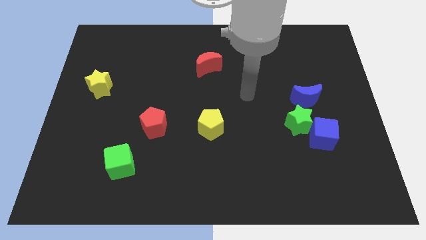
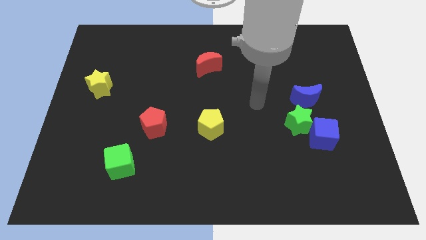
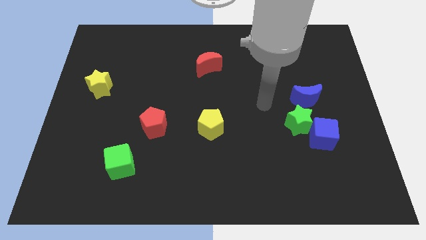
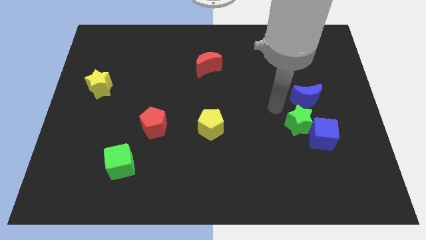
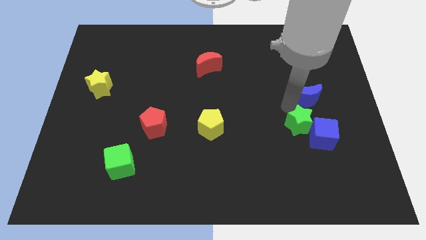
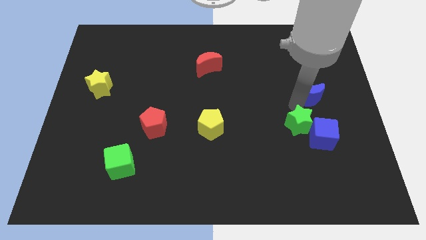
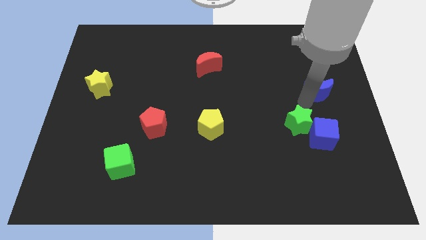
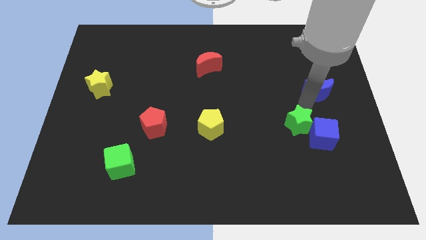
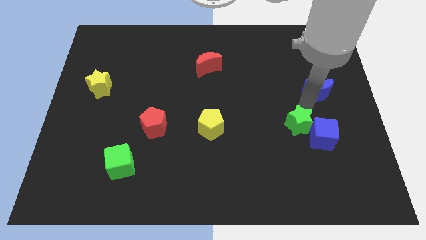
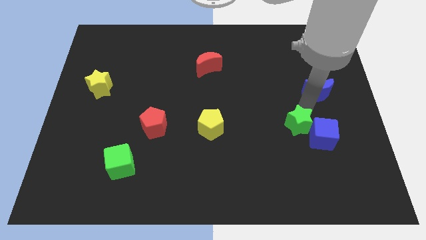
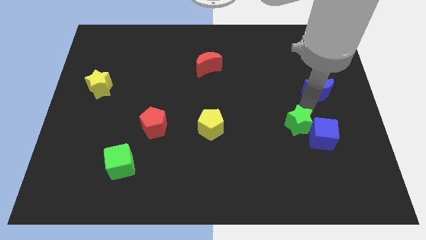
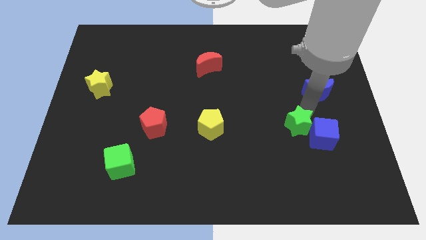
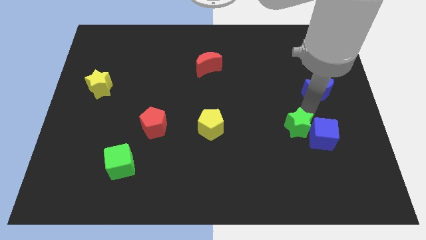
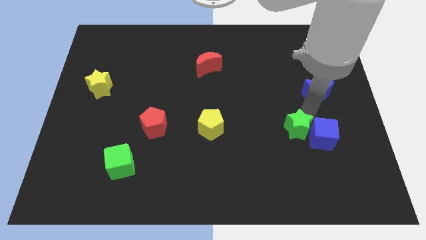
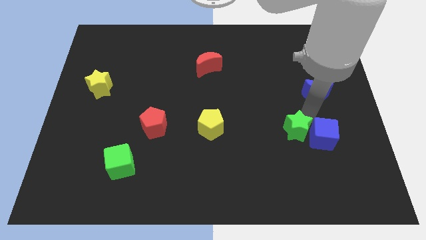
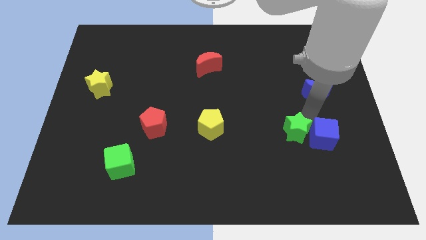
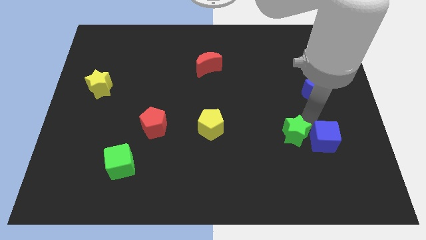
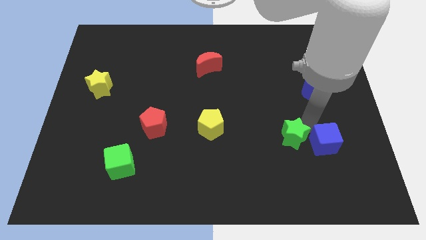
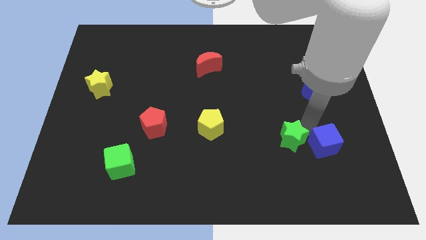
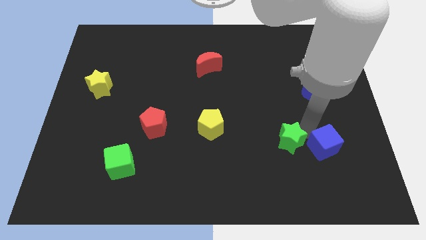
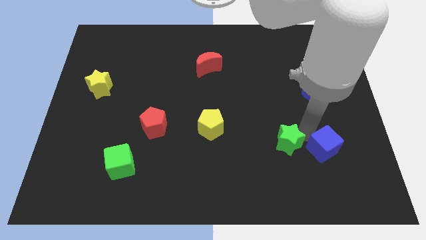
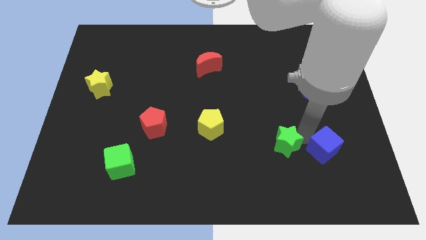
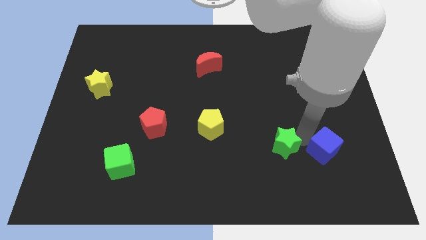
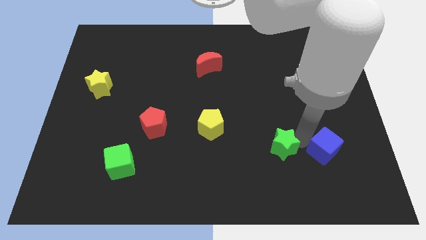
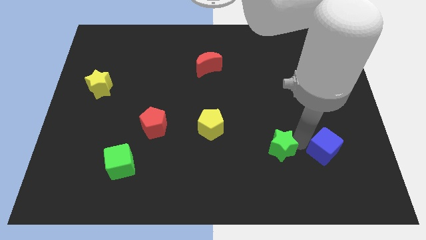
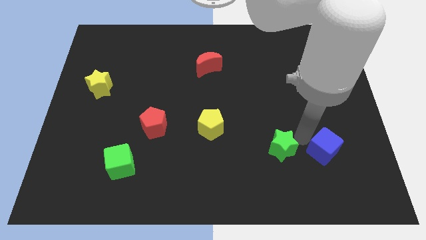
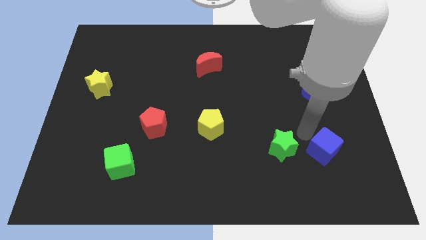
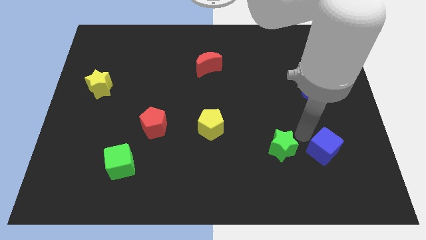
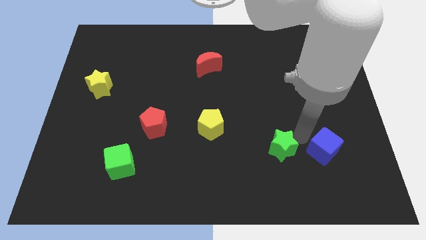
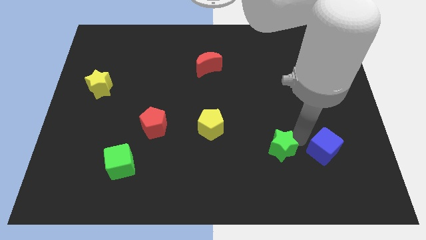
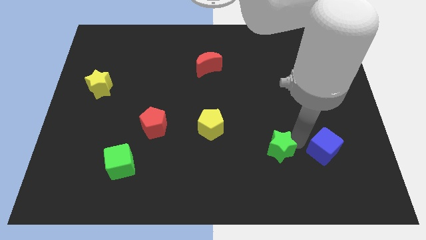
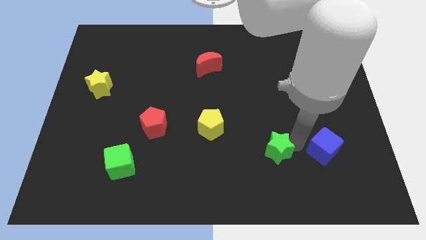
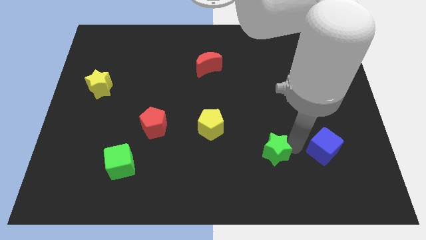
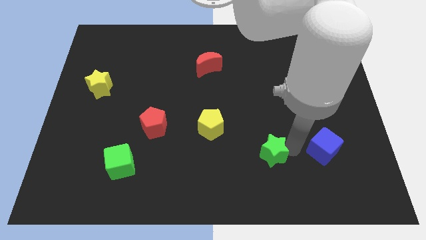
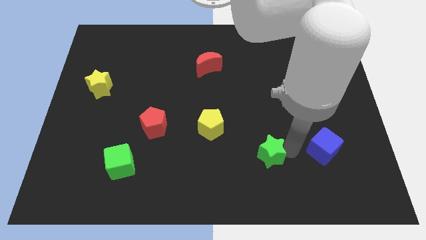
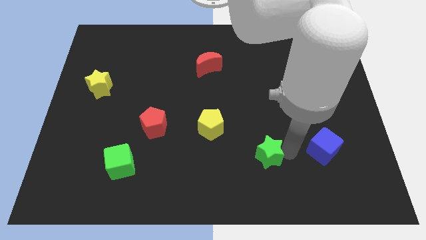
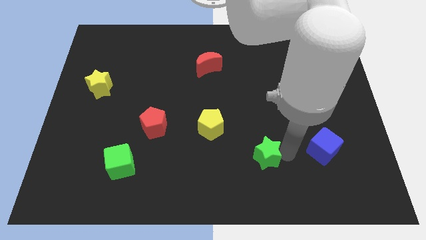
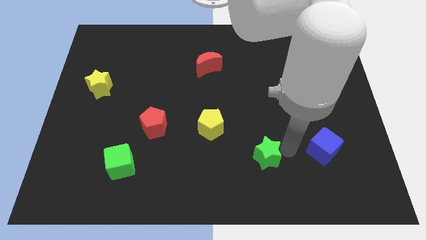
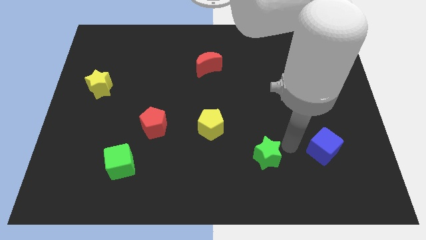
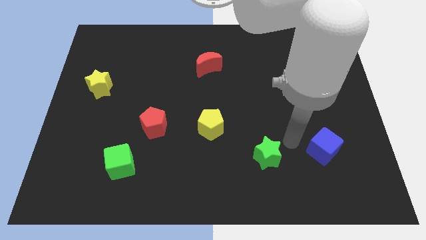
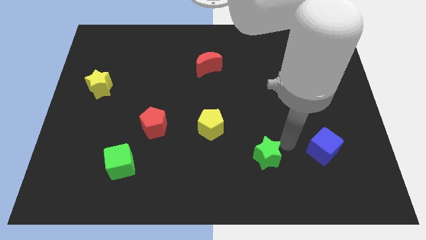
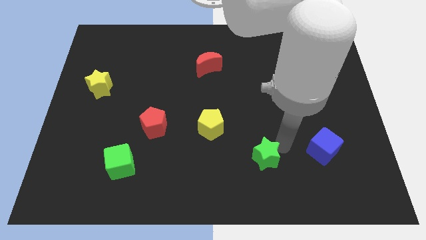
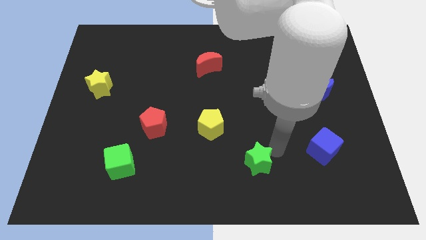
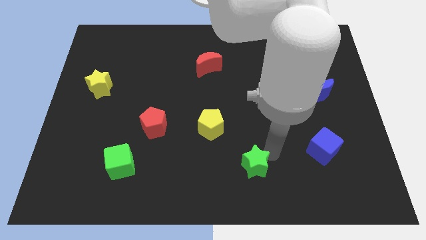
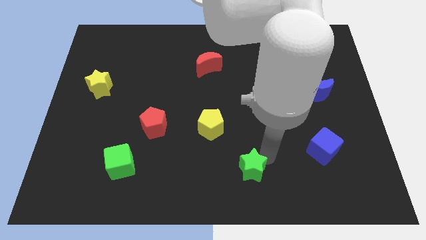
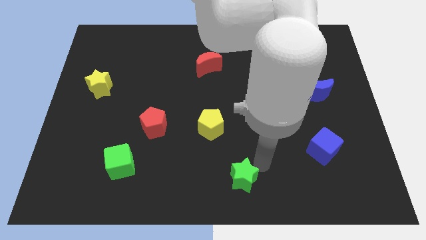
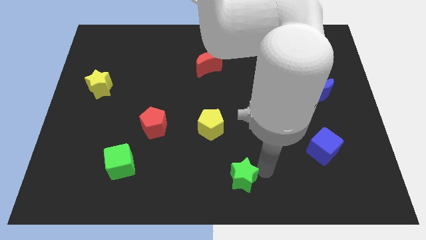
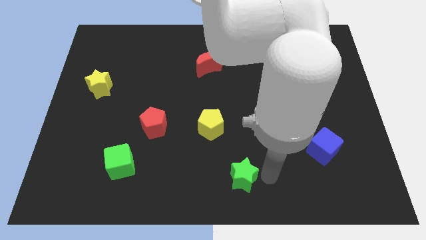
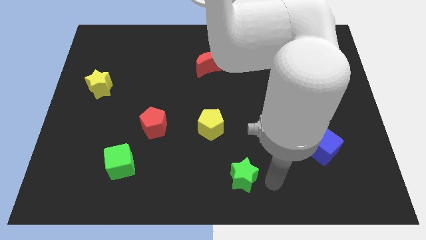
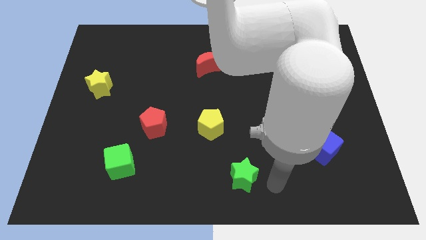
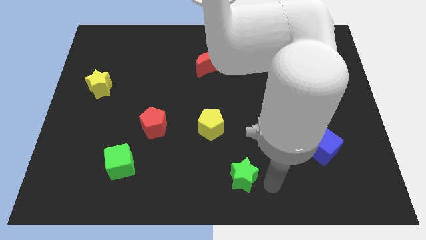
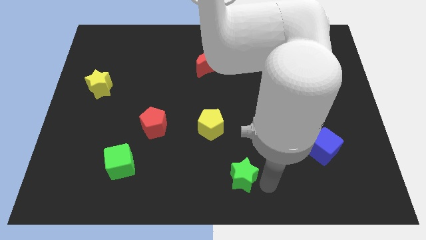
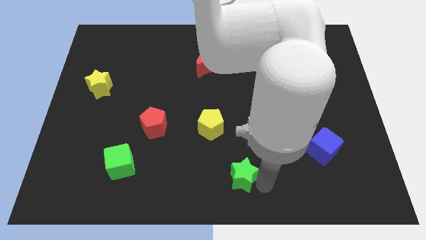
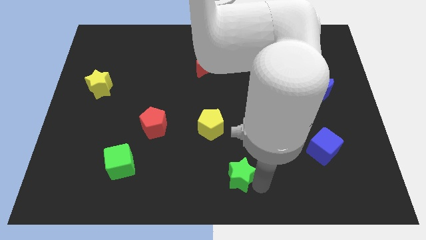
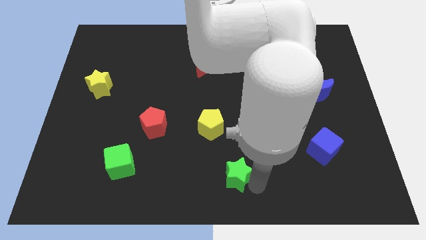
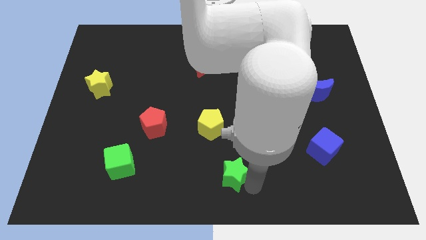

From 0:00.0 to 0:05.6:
push the green star to the bottom side of the yellow pentagon

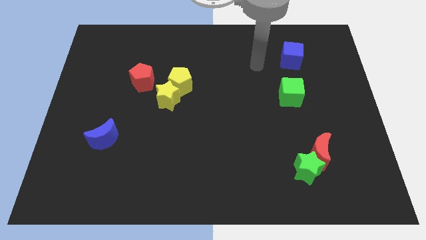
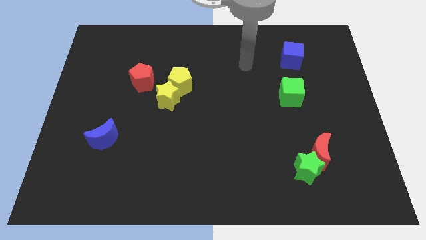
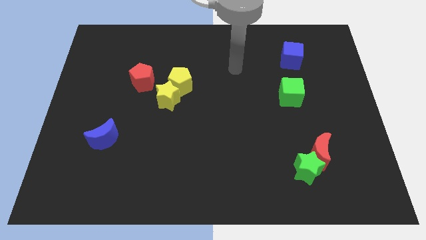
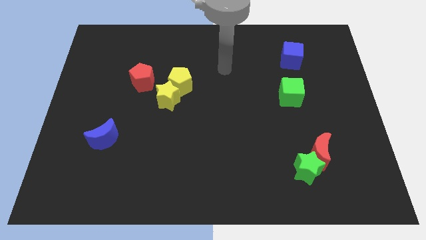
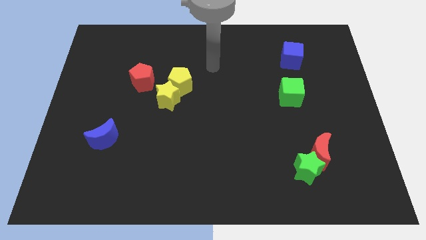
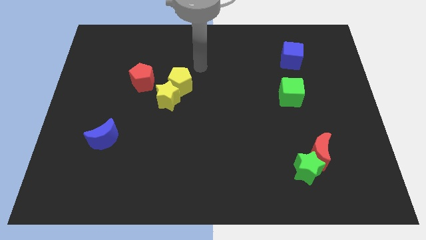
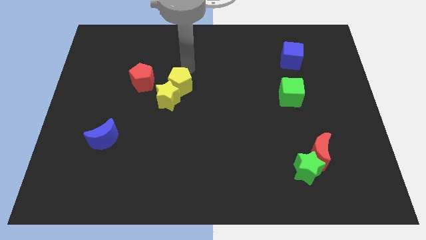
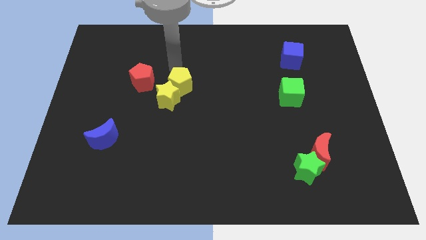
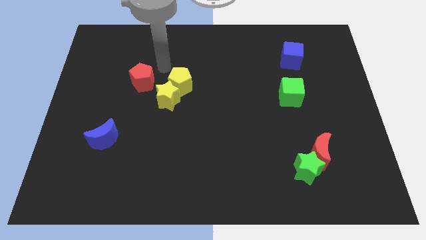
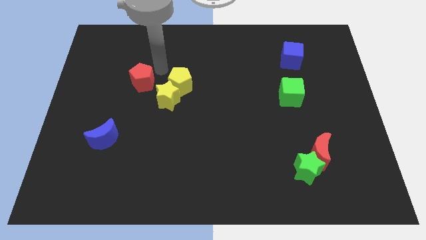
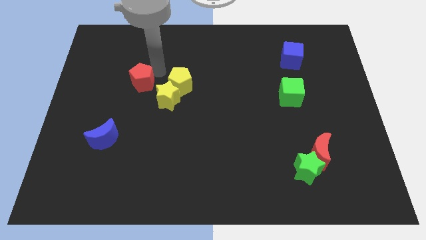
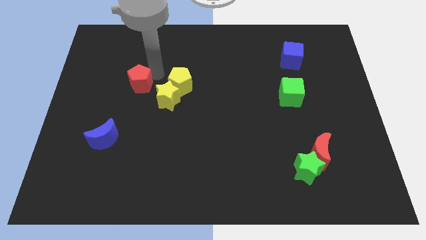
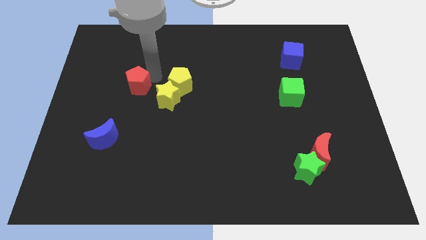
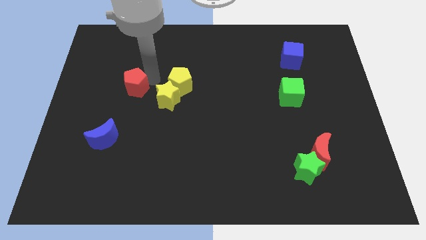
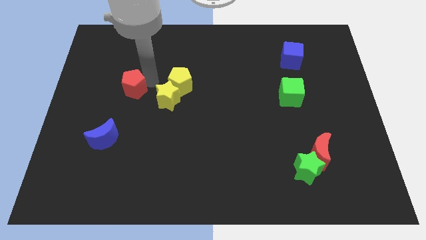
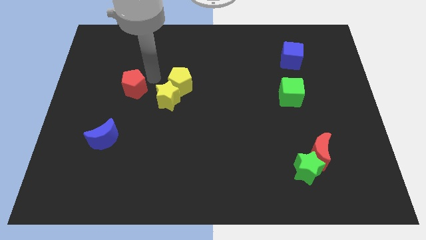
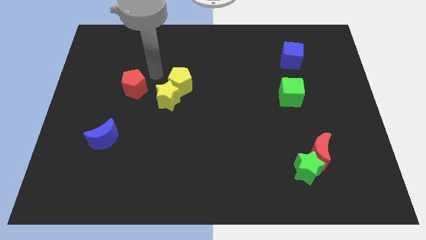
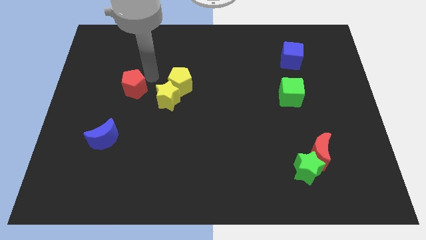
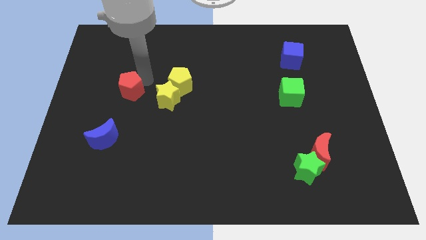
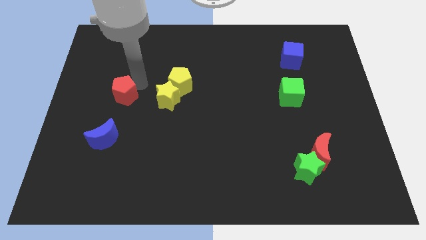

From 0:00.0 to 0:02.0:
put the red pentagon to the top side of the blue moon
